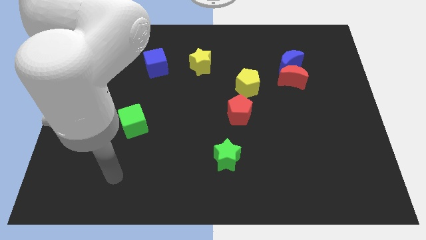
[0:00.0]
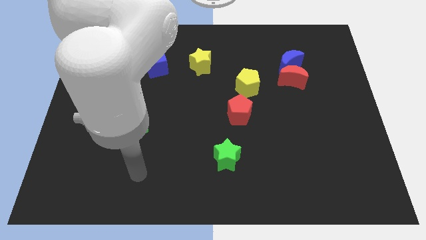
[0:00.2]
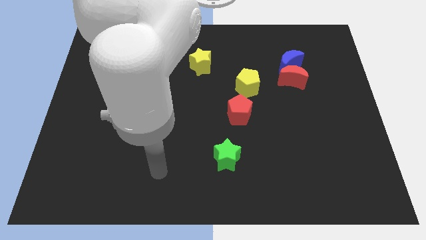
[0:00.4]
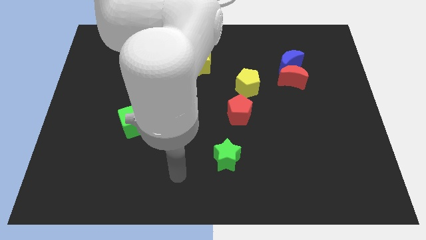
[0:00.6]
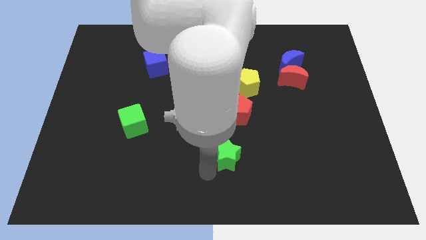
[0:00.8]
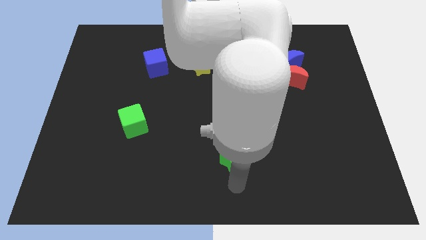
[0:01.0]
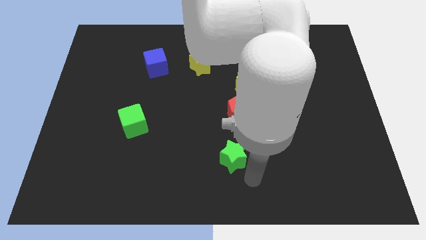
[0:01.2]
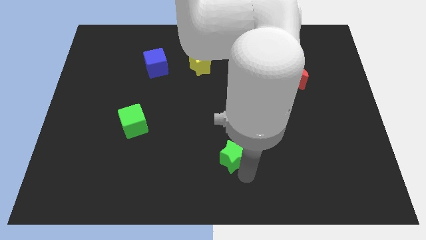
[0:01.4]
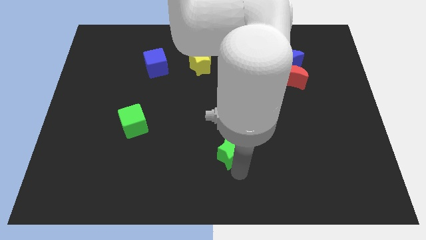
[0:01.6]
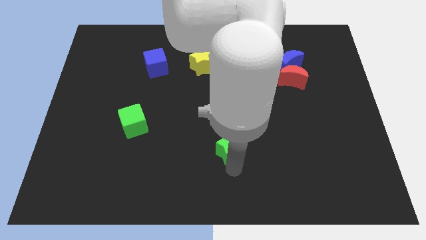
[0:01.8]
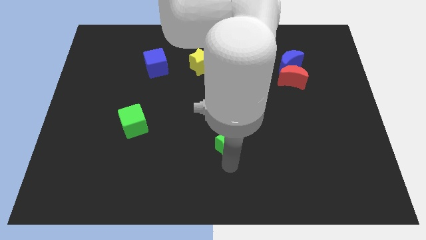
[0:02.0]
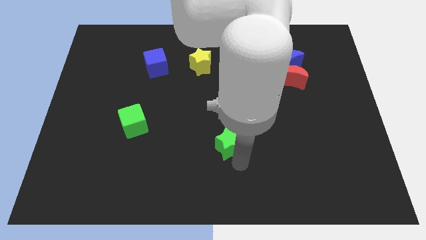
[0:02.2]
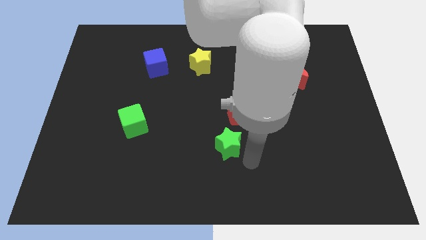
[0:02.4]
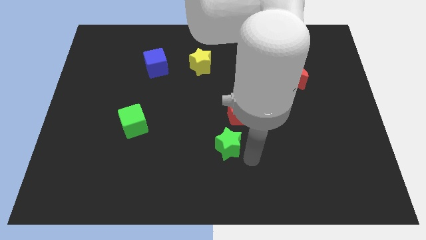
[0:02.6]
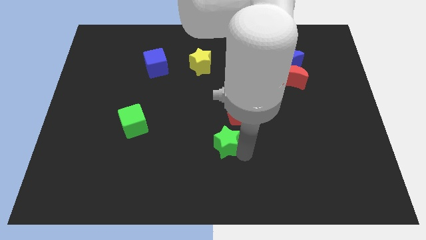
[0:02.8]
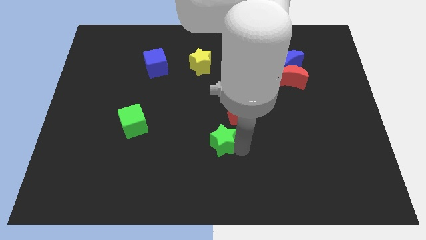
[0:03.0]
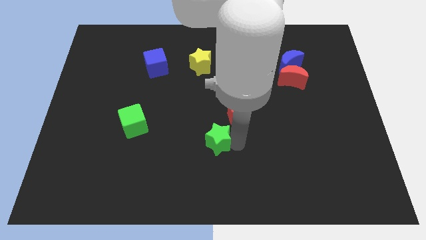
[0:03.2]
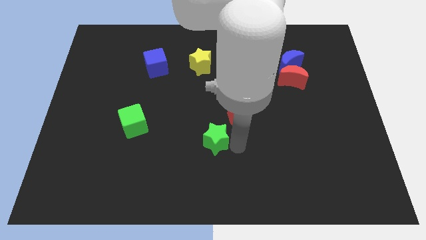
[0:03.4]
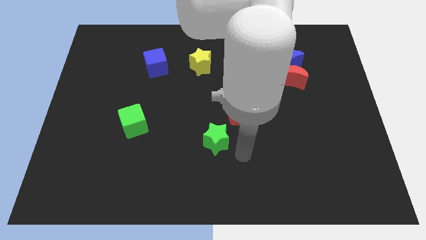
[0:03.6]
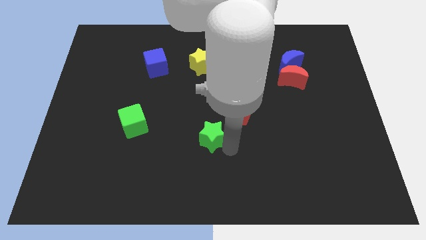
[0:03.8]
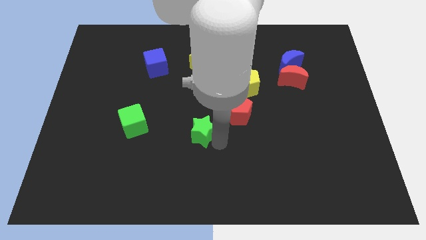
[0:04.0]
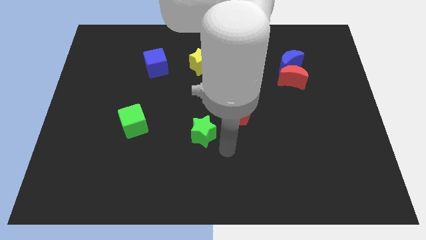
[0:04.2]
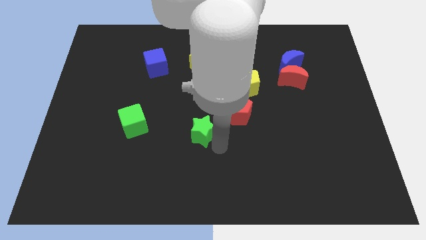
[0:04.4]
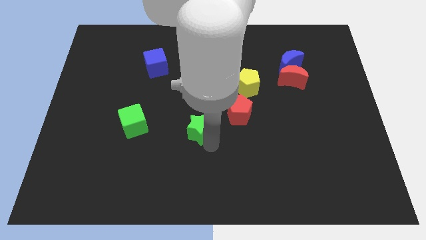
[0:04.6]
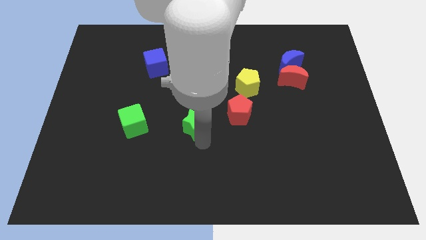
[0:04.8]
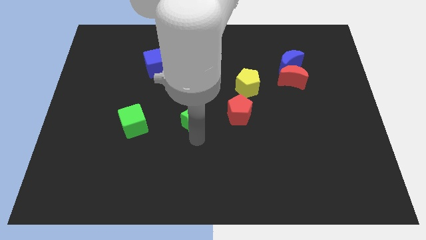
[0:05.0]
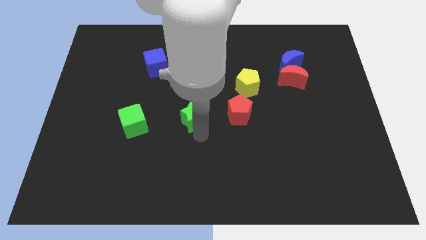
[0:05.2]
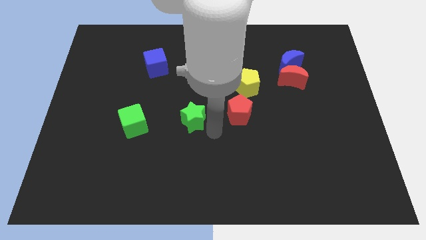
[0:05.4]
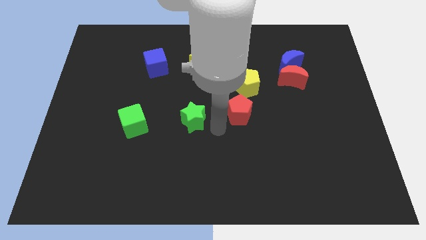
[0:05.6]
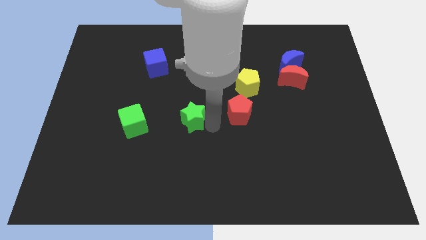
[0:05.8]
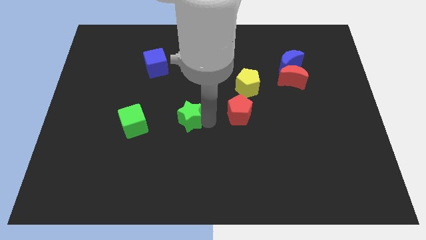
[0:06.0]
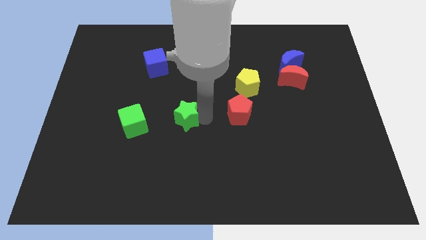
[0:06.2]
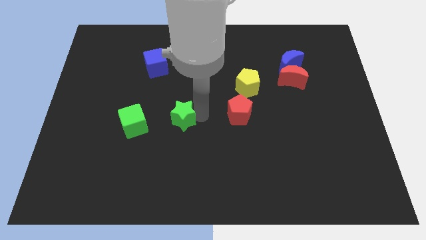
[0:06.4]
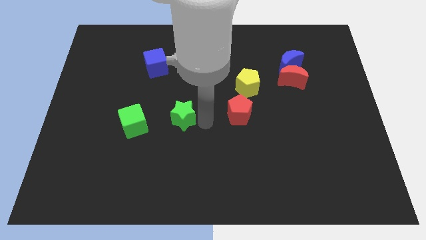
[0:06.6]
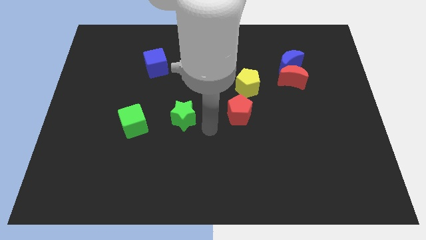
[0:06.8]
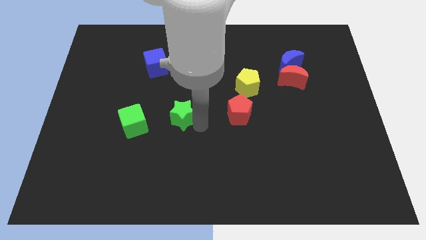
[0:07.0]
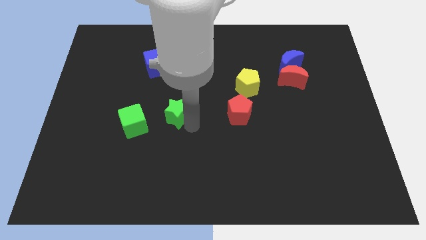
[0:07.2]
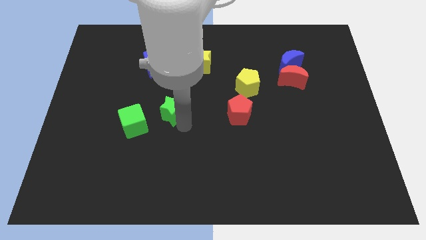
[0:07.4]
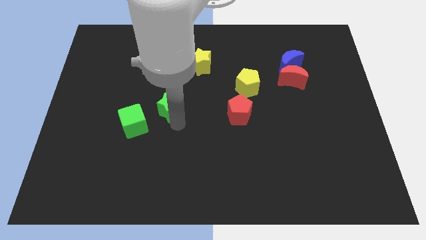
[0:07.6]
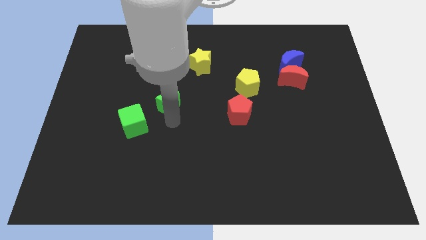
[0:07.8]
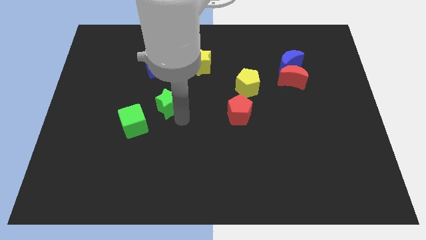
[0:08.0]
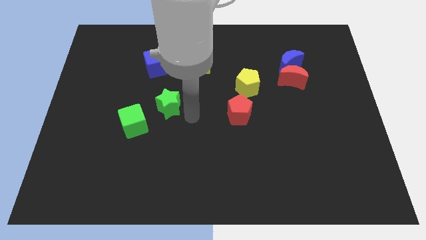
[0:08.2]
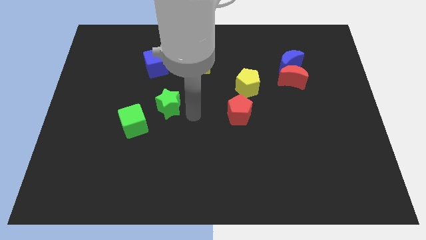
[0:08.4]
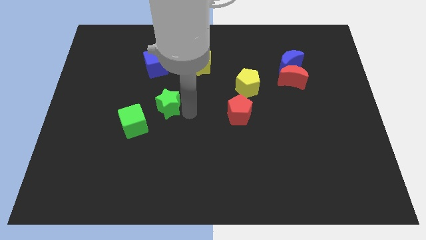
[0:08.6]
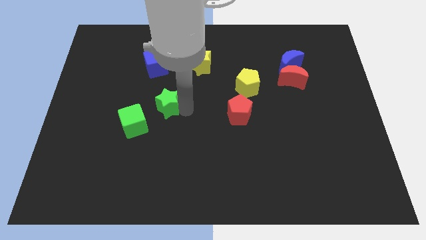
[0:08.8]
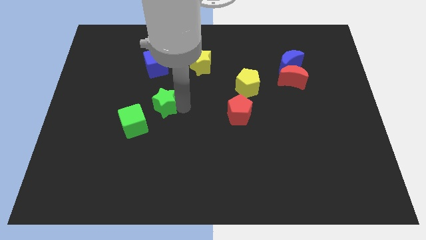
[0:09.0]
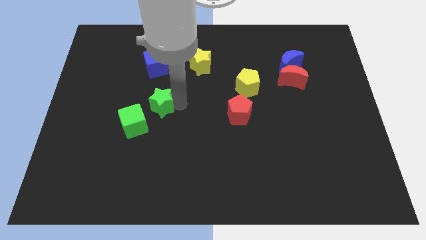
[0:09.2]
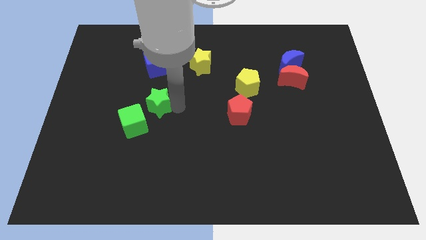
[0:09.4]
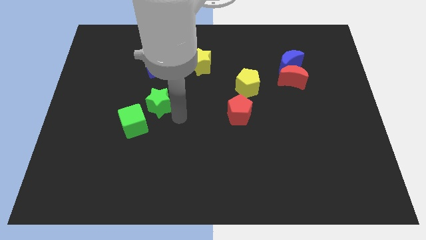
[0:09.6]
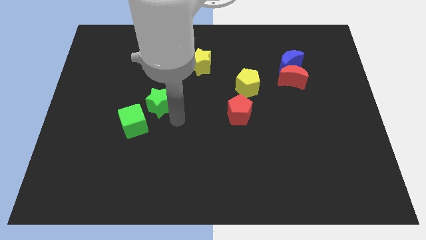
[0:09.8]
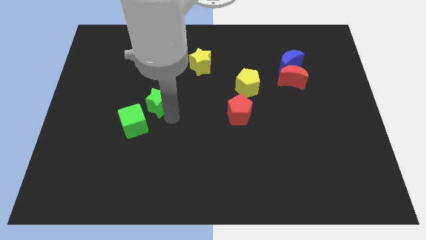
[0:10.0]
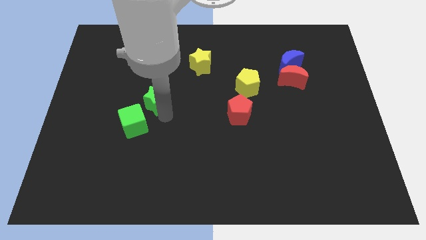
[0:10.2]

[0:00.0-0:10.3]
move the green star to the top of the green cube

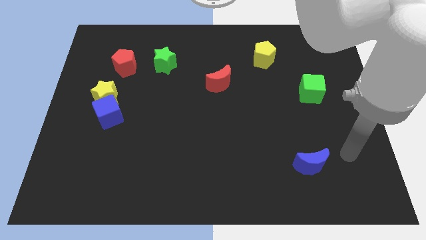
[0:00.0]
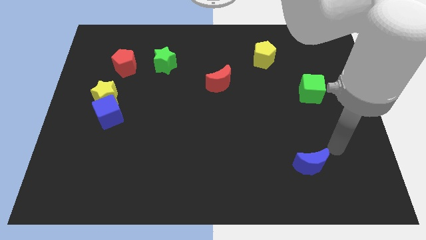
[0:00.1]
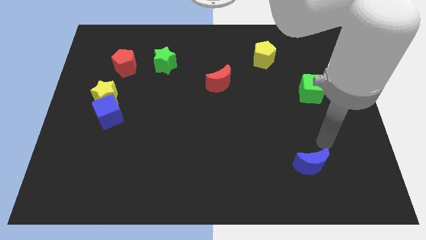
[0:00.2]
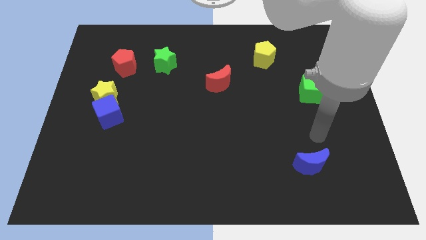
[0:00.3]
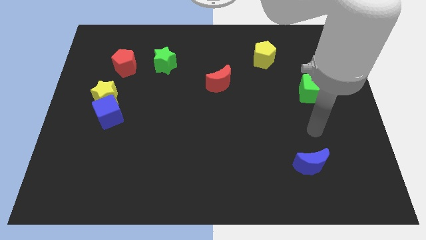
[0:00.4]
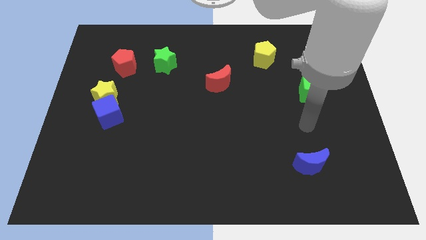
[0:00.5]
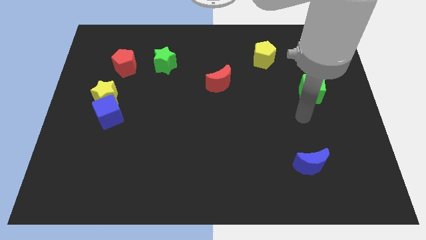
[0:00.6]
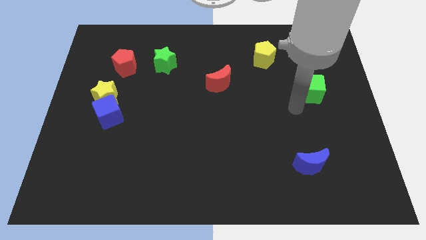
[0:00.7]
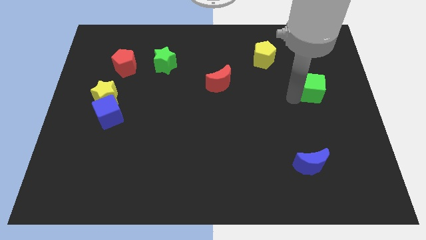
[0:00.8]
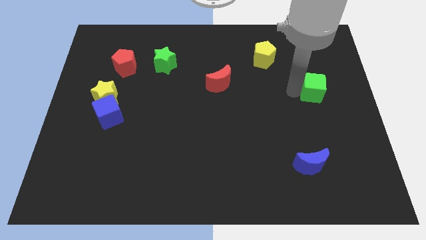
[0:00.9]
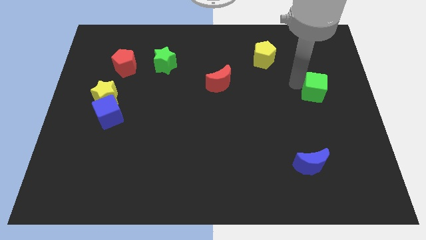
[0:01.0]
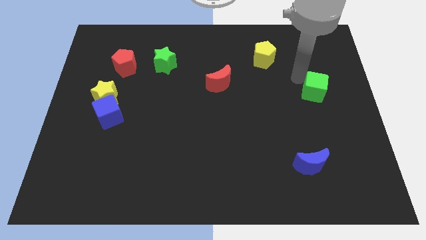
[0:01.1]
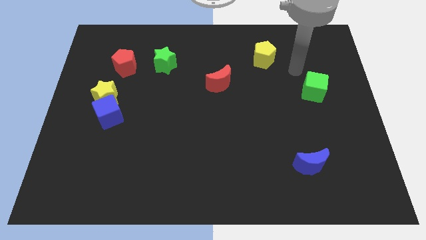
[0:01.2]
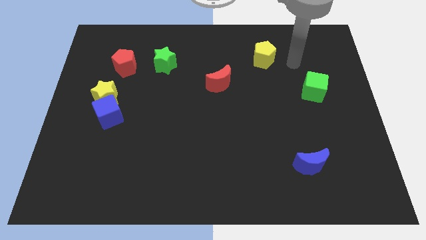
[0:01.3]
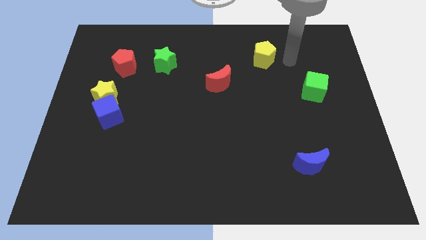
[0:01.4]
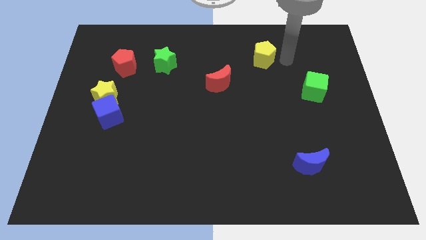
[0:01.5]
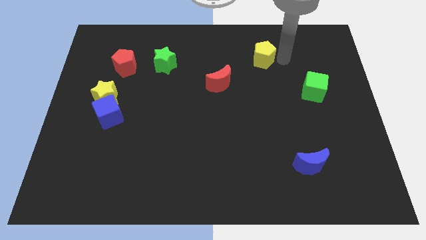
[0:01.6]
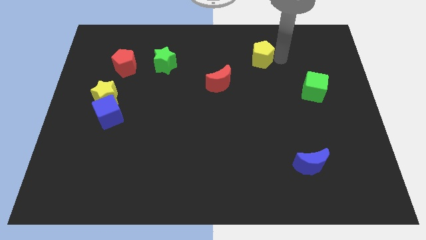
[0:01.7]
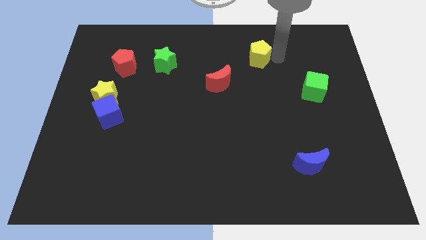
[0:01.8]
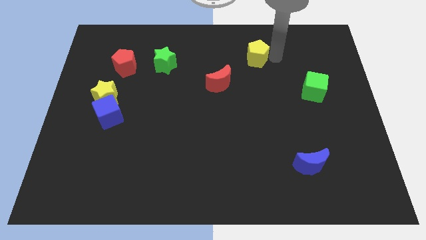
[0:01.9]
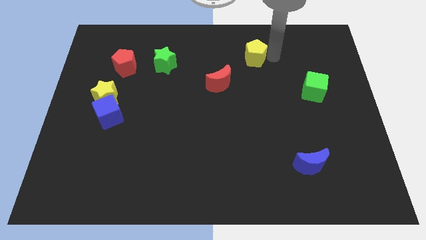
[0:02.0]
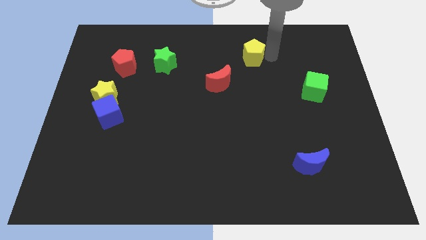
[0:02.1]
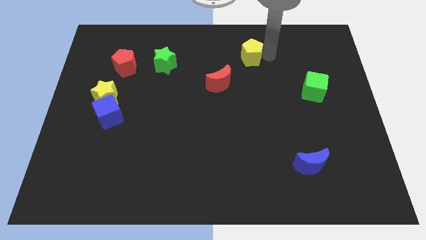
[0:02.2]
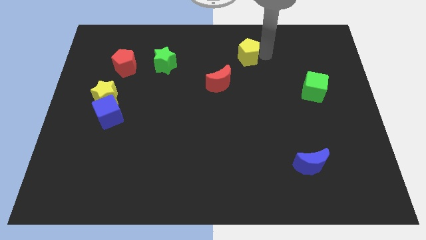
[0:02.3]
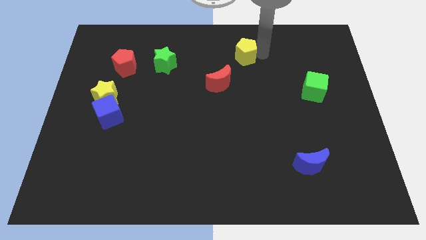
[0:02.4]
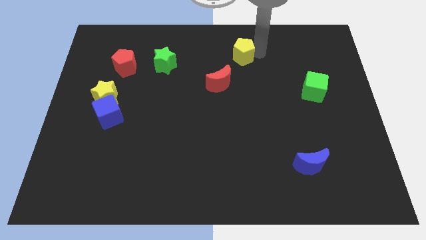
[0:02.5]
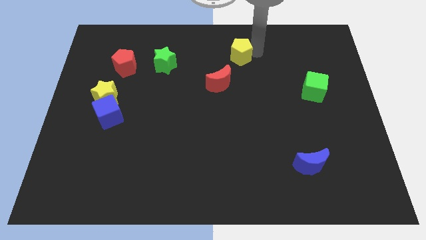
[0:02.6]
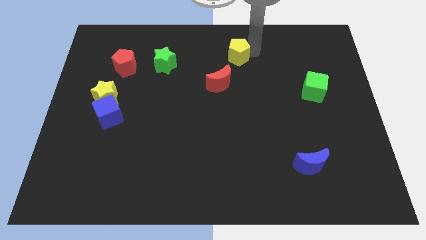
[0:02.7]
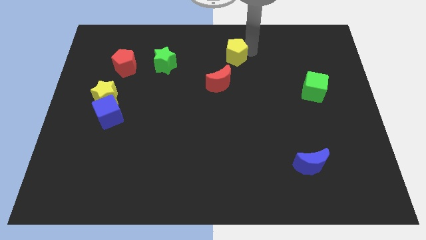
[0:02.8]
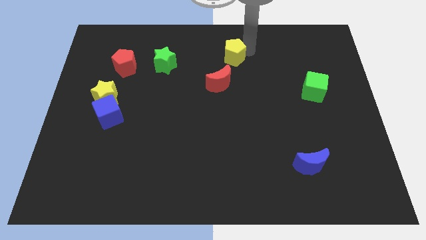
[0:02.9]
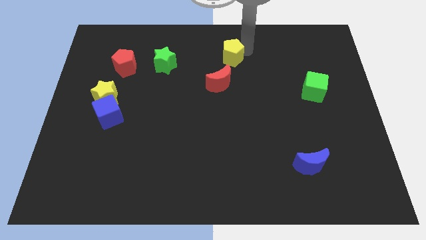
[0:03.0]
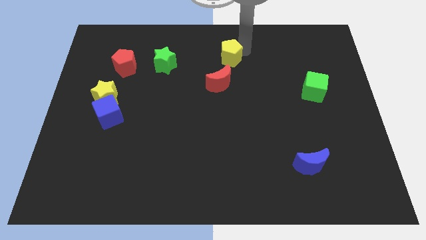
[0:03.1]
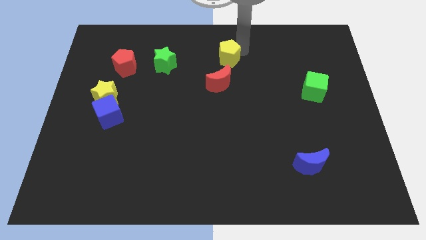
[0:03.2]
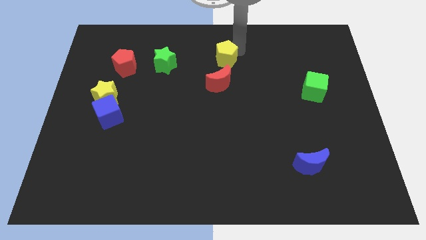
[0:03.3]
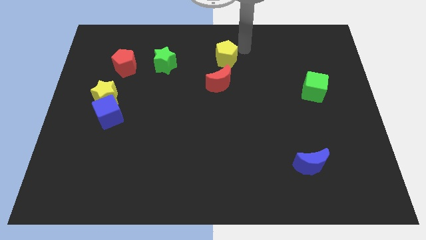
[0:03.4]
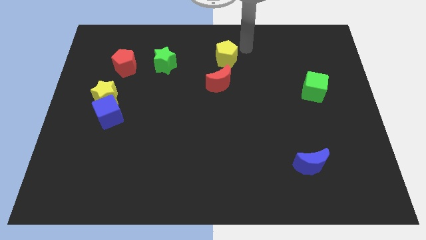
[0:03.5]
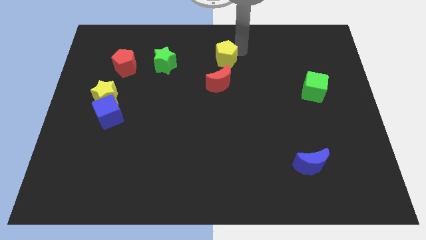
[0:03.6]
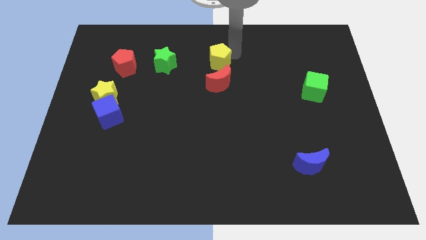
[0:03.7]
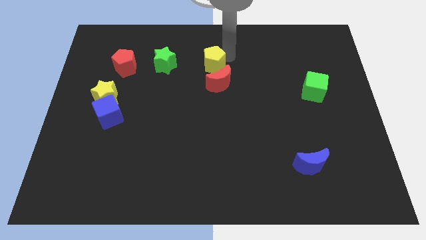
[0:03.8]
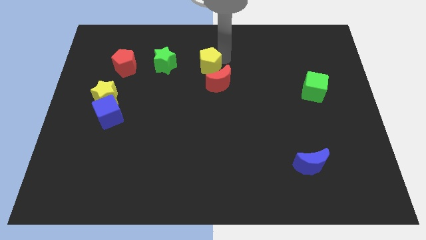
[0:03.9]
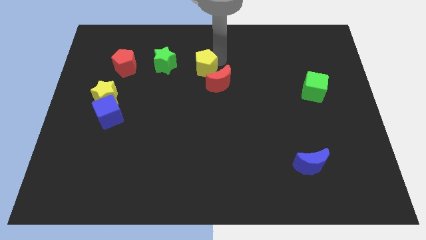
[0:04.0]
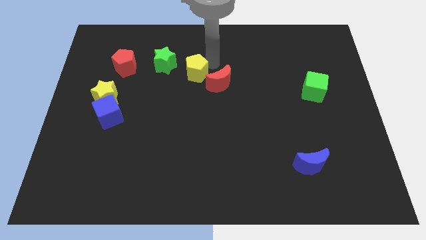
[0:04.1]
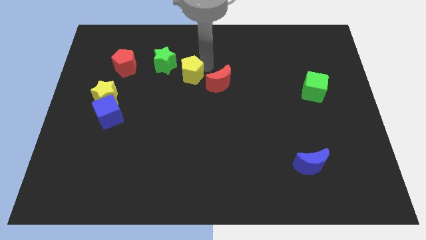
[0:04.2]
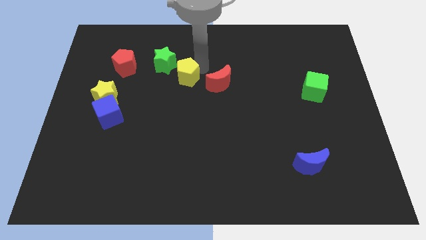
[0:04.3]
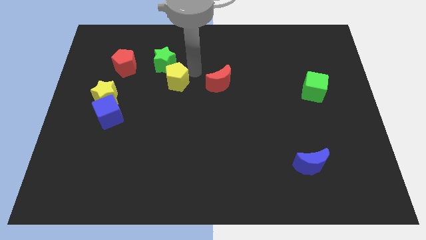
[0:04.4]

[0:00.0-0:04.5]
slide the yellow pentagon to the bottom side of the green star
